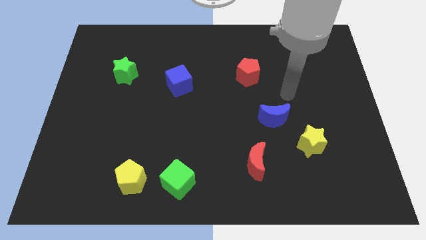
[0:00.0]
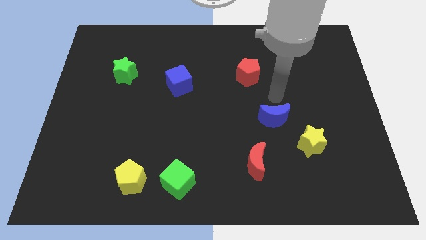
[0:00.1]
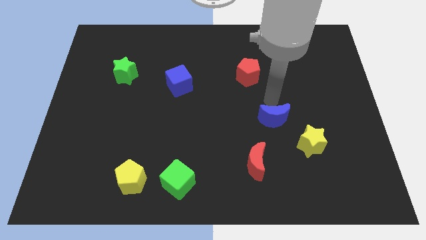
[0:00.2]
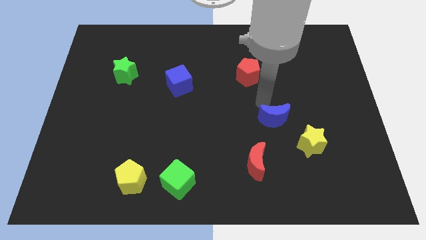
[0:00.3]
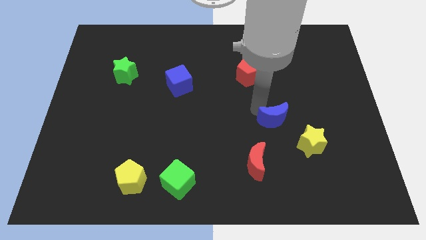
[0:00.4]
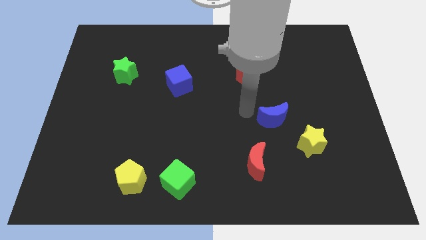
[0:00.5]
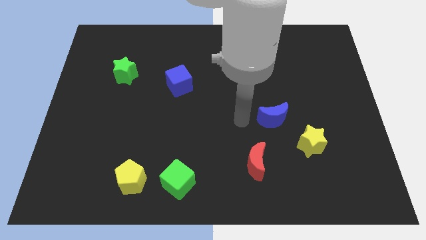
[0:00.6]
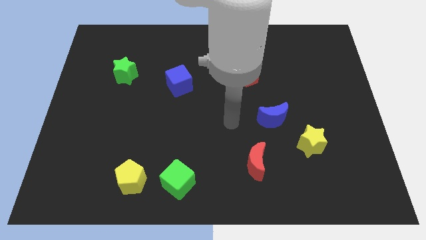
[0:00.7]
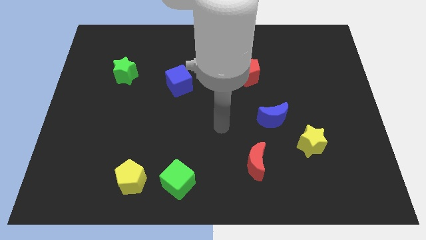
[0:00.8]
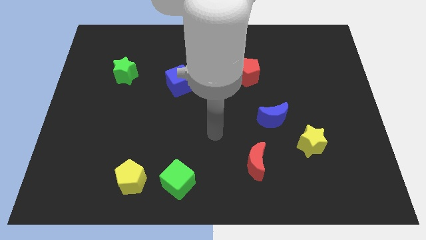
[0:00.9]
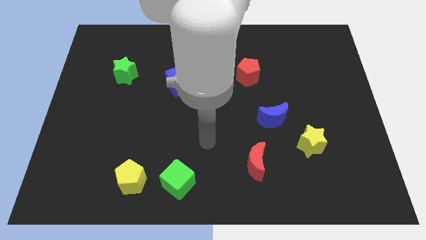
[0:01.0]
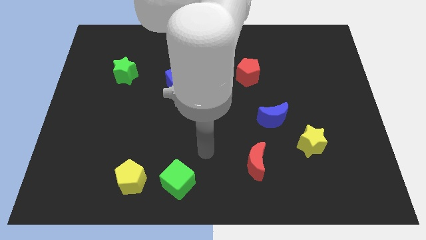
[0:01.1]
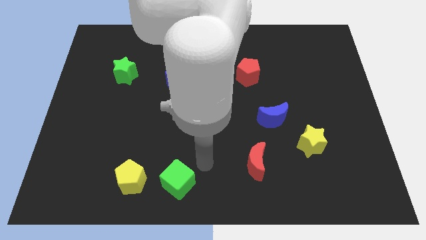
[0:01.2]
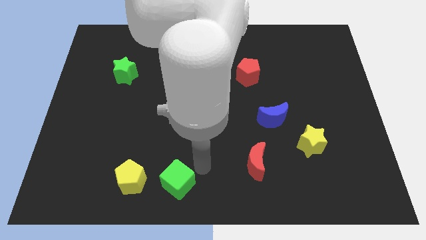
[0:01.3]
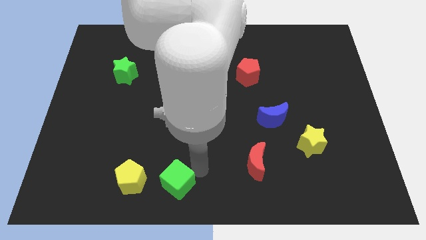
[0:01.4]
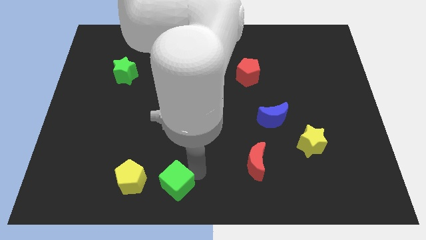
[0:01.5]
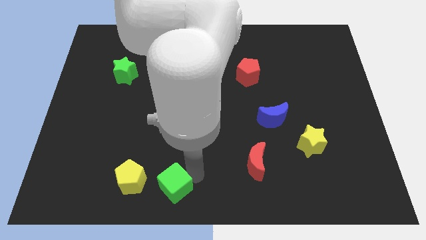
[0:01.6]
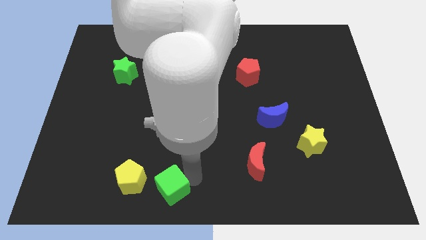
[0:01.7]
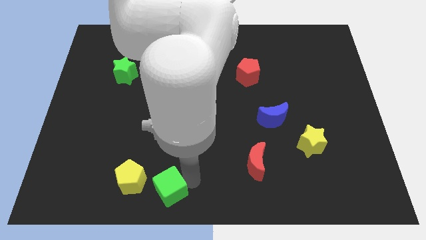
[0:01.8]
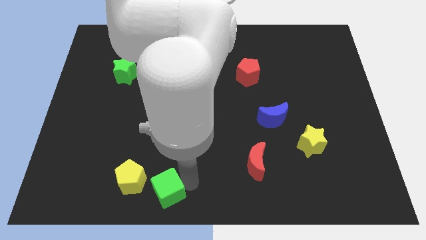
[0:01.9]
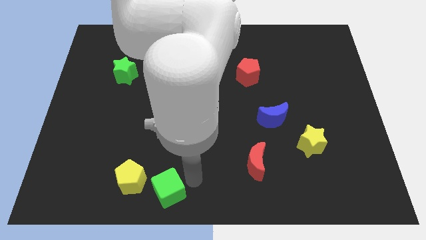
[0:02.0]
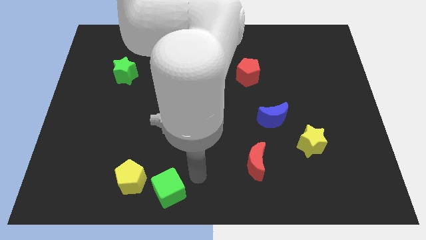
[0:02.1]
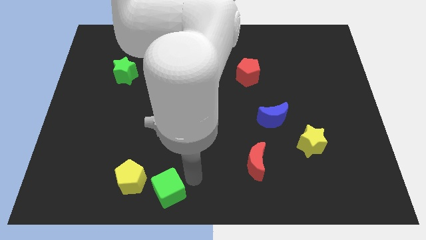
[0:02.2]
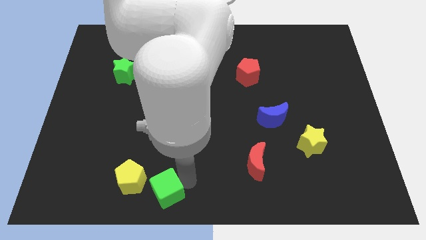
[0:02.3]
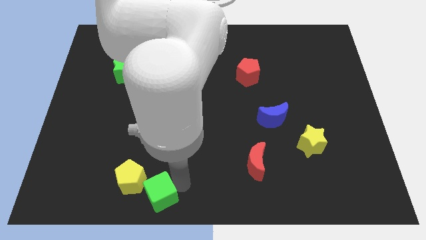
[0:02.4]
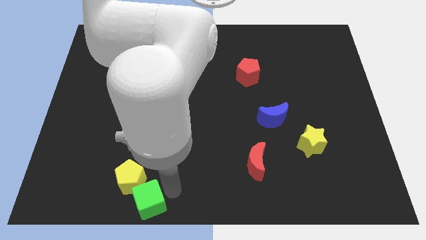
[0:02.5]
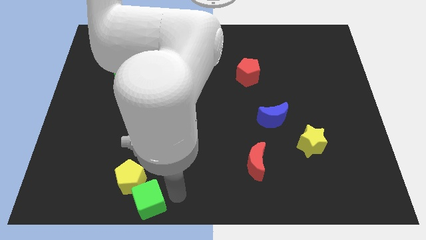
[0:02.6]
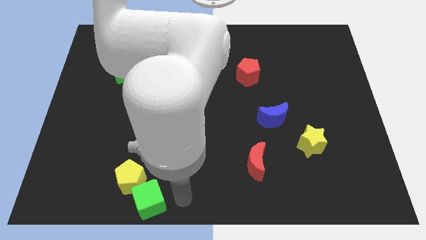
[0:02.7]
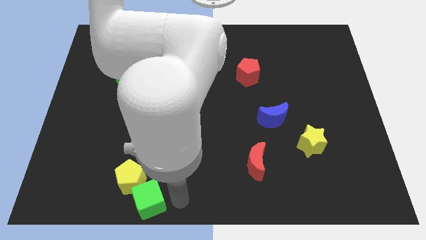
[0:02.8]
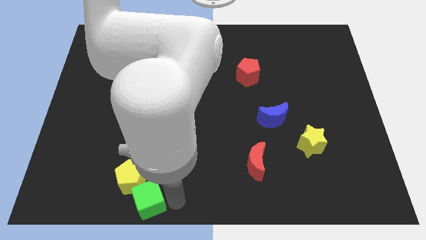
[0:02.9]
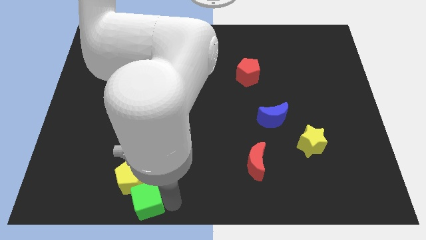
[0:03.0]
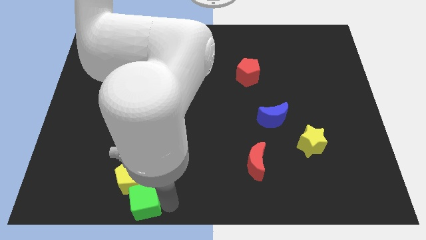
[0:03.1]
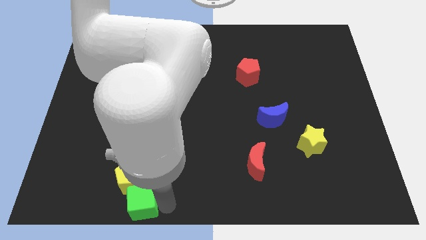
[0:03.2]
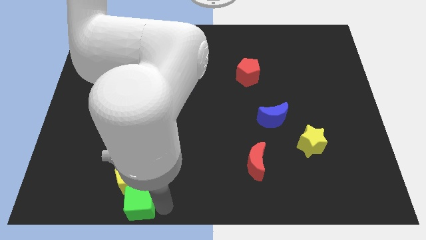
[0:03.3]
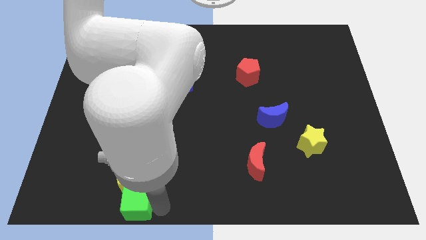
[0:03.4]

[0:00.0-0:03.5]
slightly push the green cube to the left

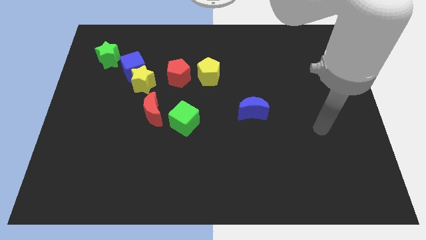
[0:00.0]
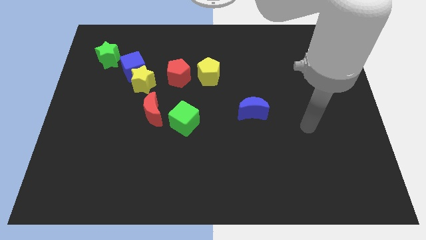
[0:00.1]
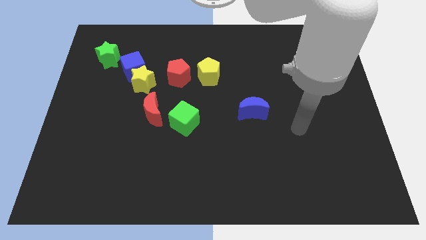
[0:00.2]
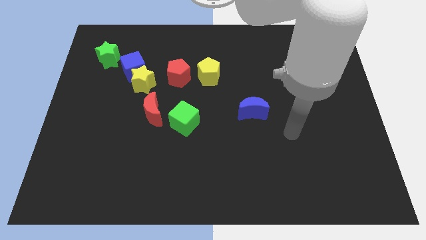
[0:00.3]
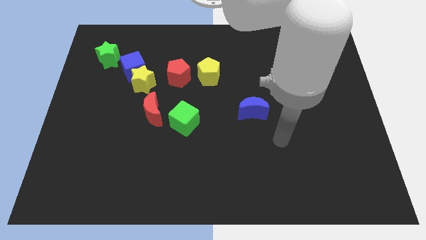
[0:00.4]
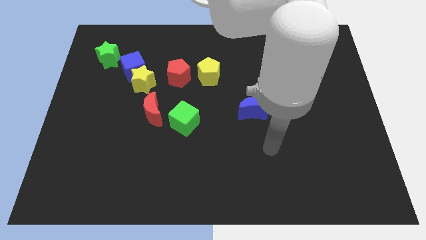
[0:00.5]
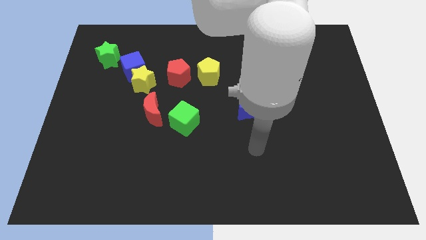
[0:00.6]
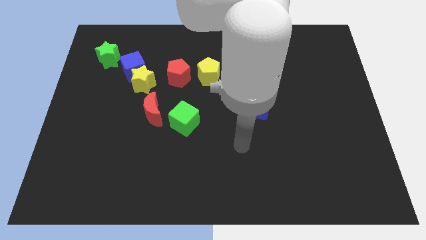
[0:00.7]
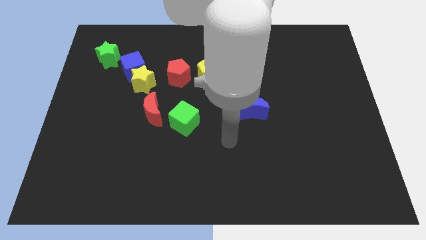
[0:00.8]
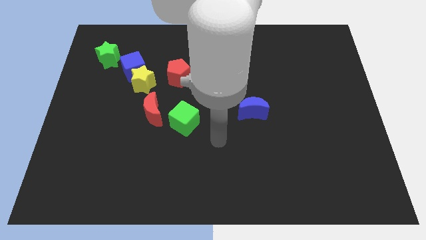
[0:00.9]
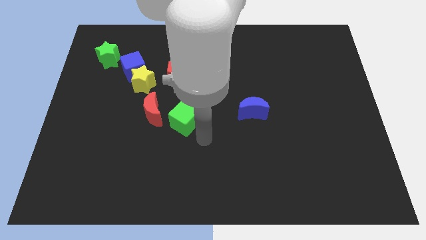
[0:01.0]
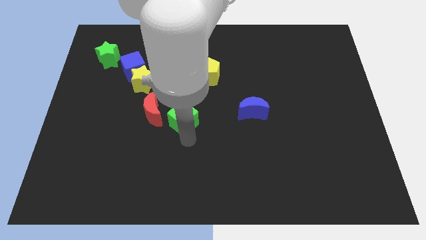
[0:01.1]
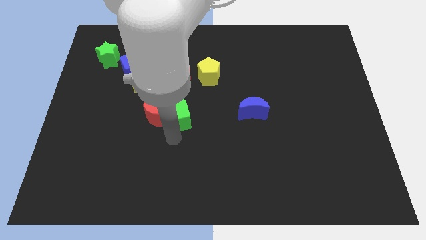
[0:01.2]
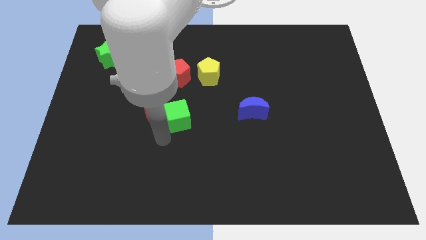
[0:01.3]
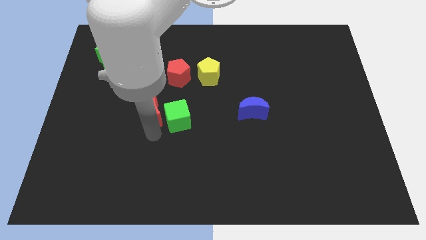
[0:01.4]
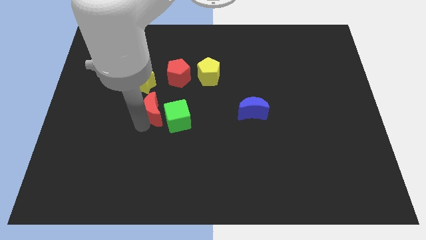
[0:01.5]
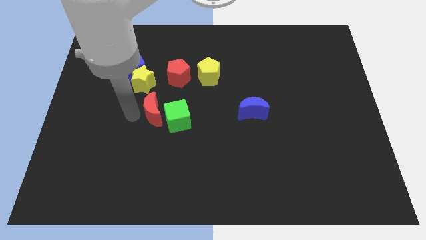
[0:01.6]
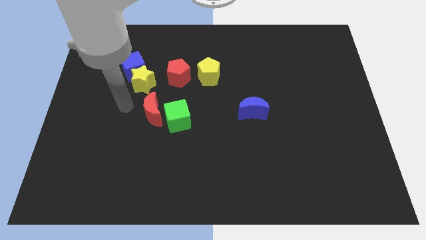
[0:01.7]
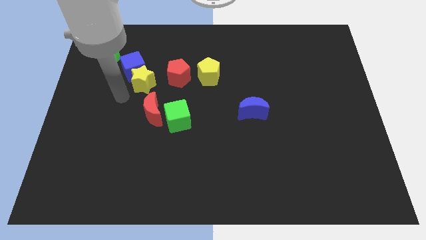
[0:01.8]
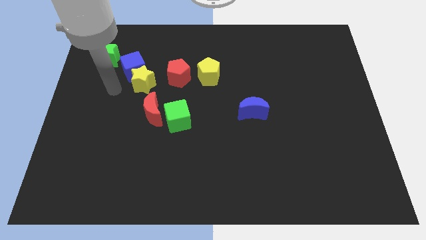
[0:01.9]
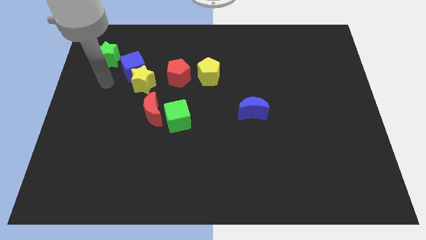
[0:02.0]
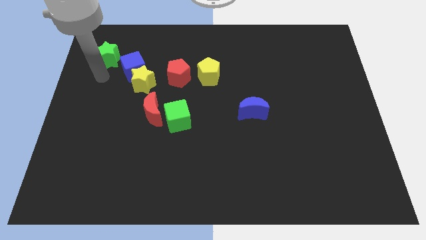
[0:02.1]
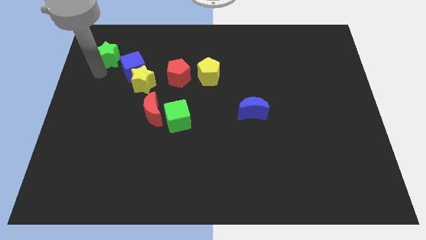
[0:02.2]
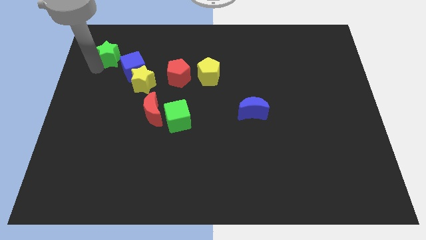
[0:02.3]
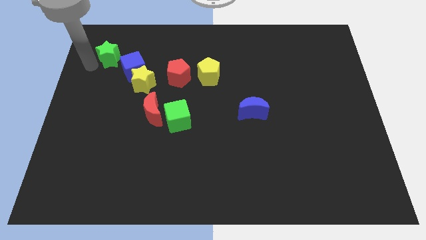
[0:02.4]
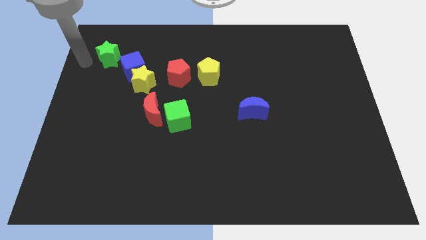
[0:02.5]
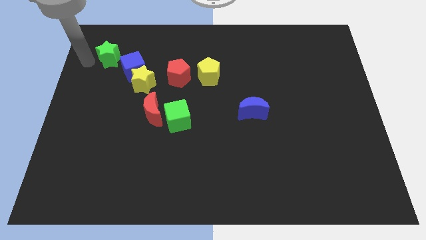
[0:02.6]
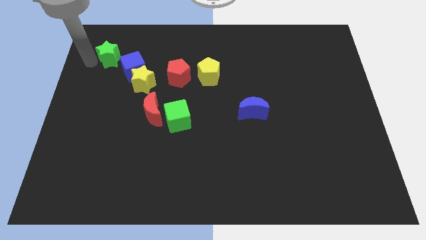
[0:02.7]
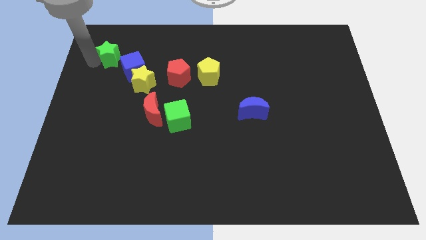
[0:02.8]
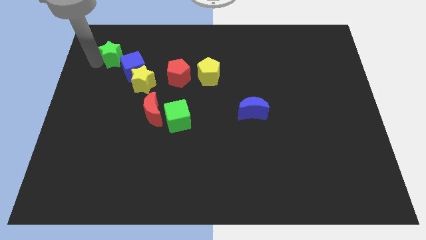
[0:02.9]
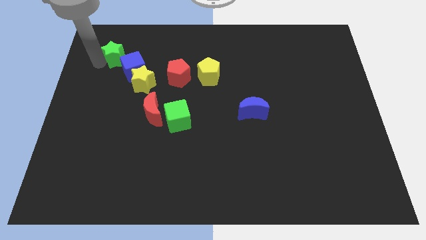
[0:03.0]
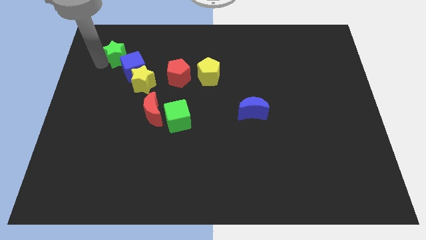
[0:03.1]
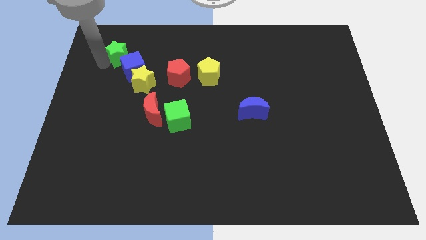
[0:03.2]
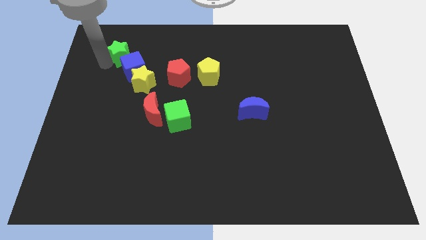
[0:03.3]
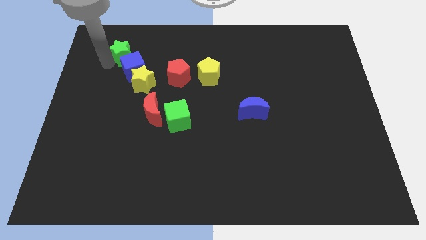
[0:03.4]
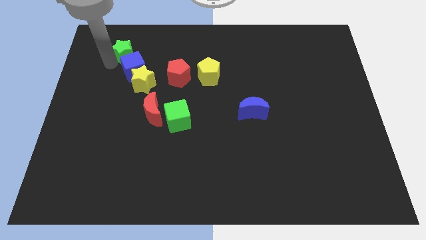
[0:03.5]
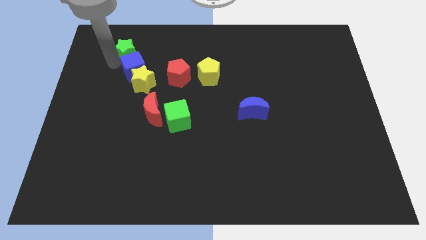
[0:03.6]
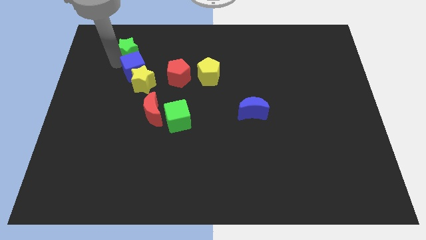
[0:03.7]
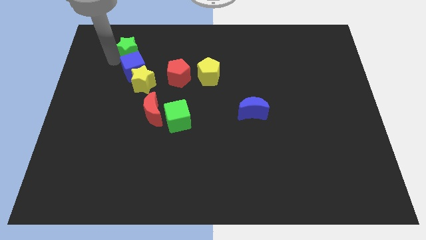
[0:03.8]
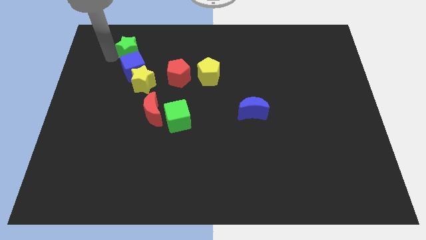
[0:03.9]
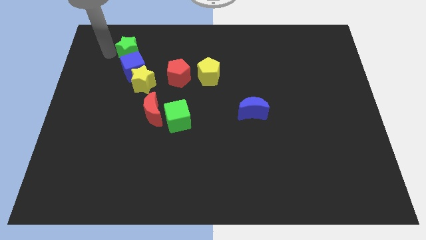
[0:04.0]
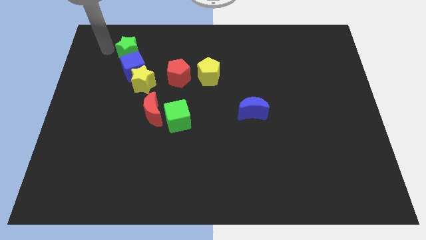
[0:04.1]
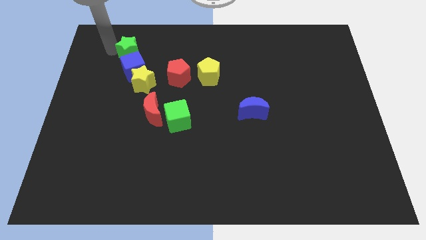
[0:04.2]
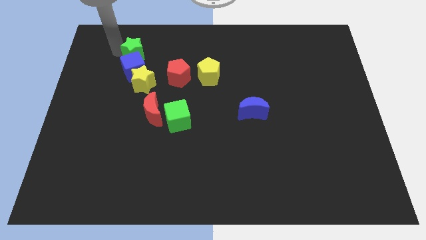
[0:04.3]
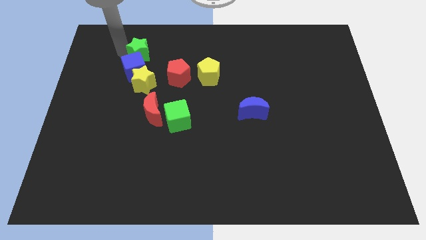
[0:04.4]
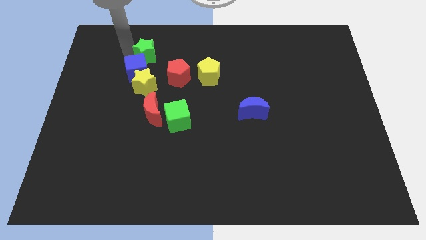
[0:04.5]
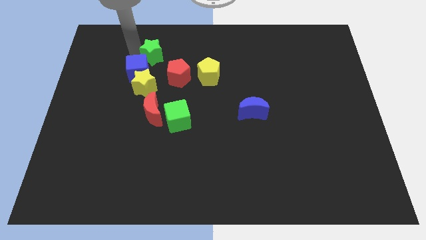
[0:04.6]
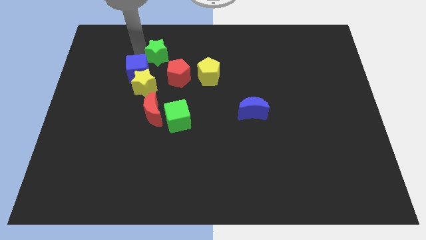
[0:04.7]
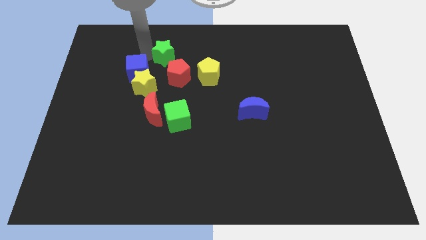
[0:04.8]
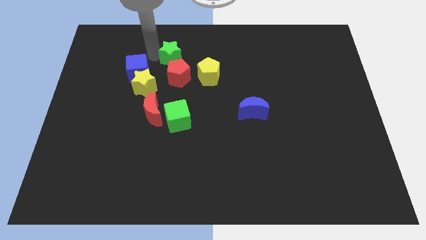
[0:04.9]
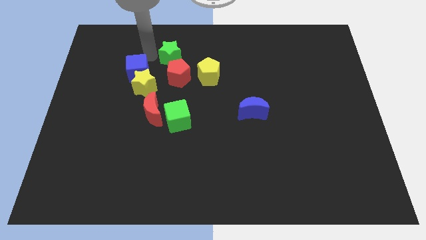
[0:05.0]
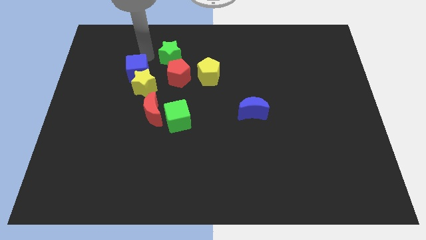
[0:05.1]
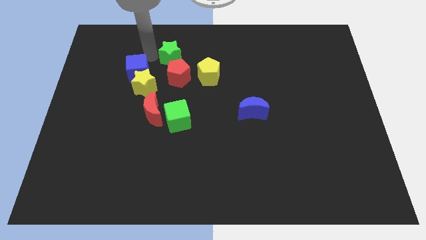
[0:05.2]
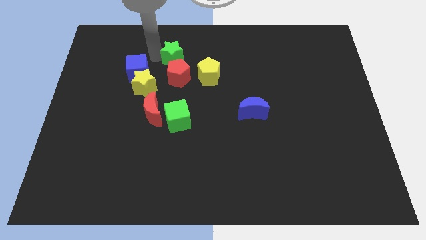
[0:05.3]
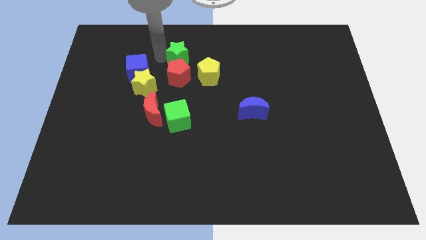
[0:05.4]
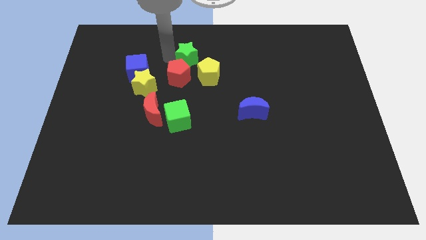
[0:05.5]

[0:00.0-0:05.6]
move the green star to the right
